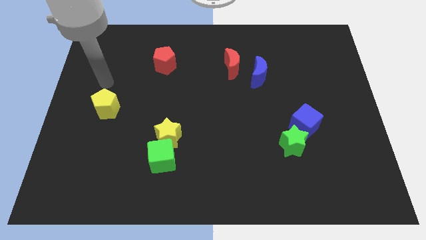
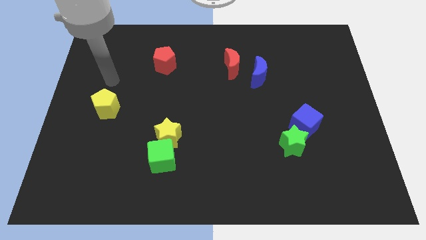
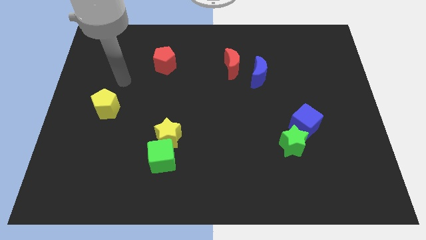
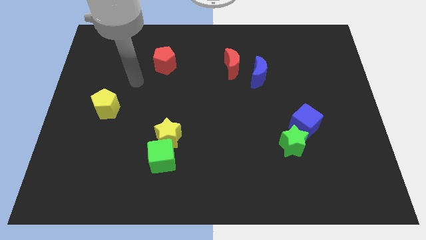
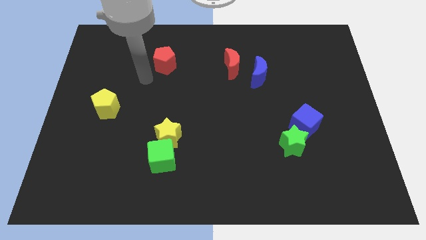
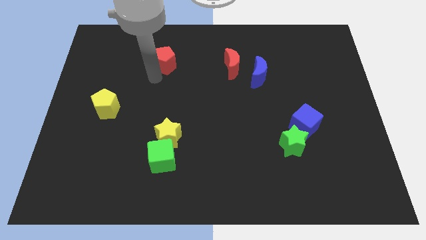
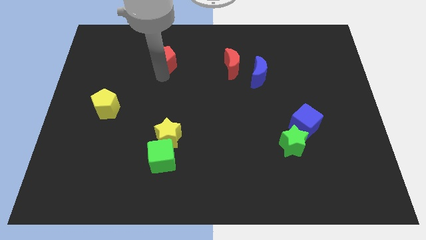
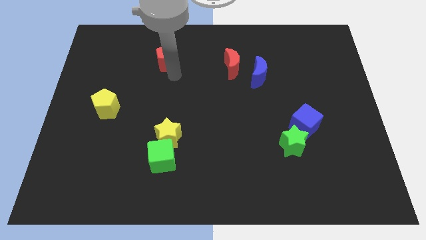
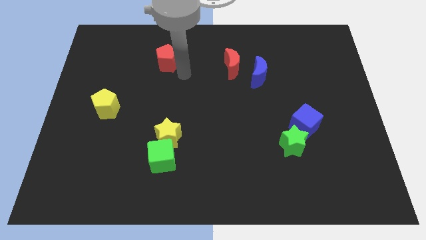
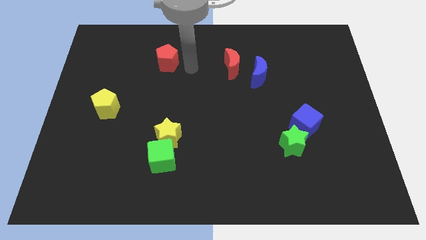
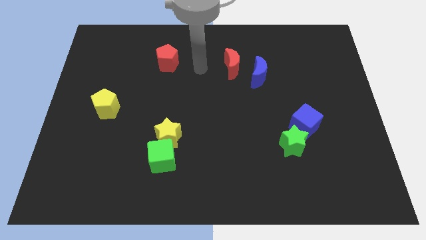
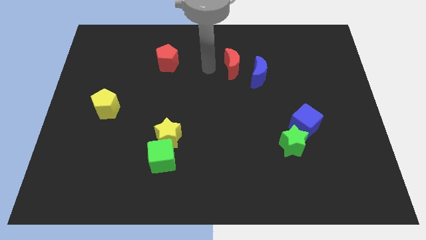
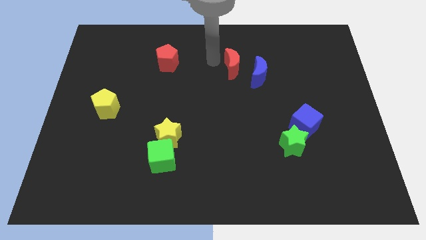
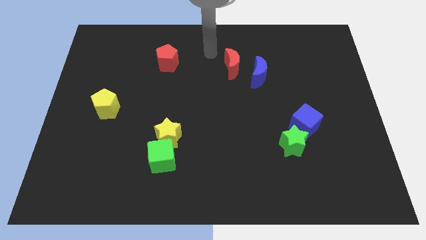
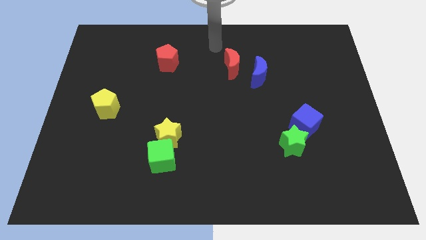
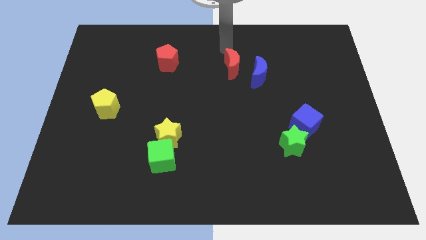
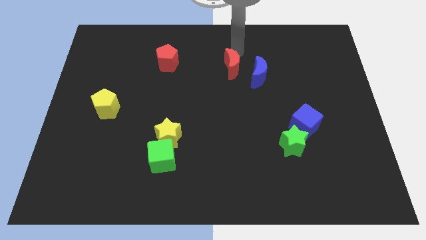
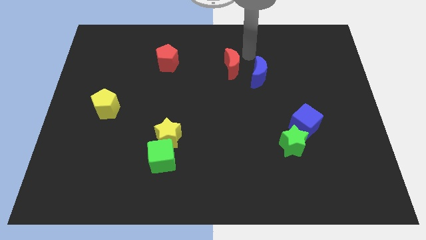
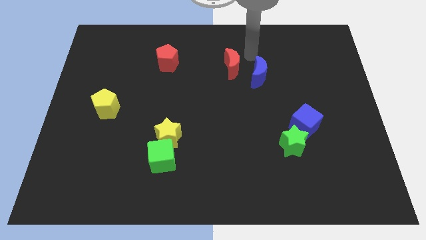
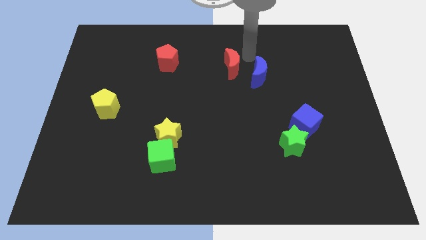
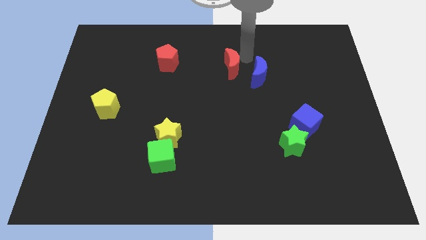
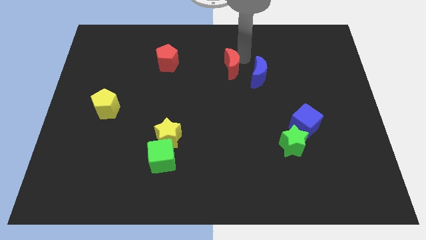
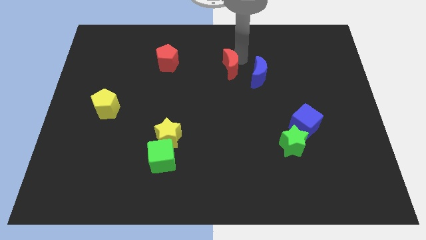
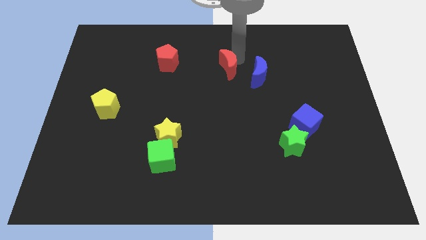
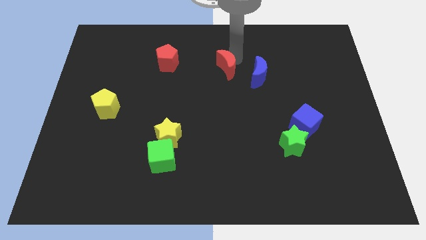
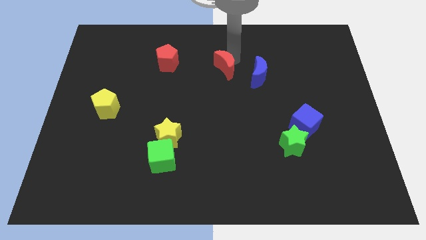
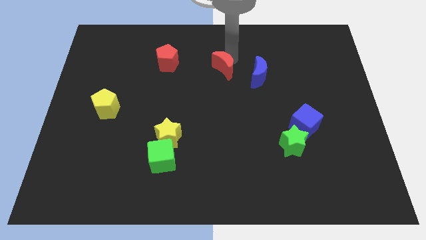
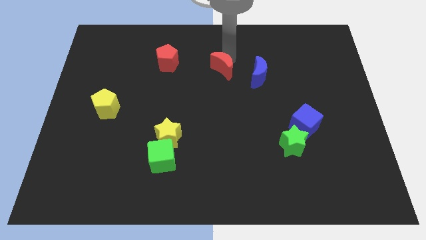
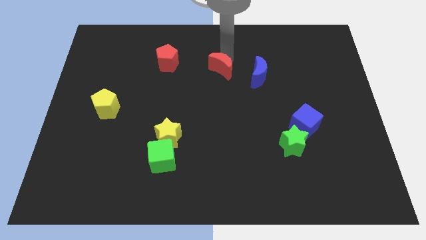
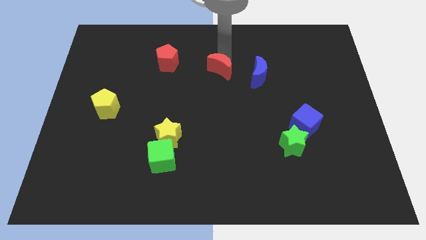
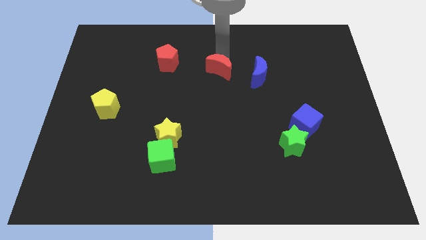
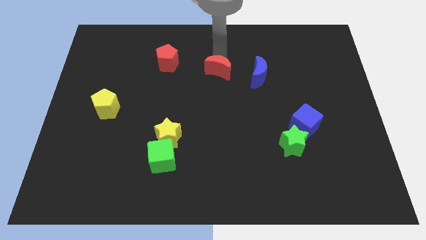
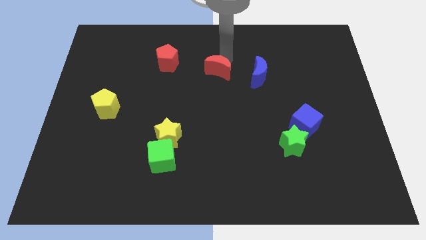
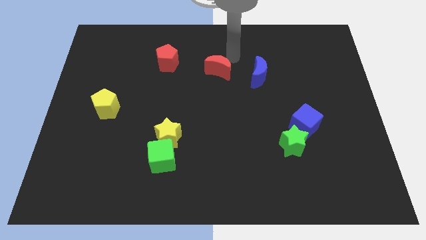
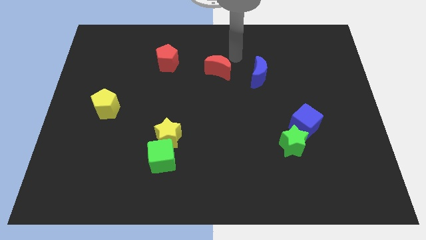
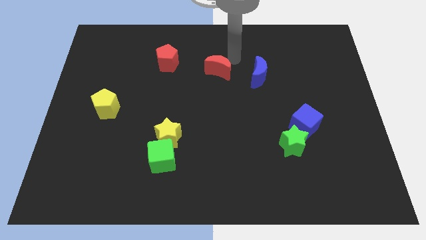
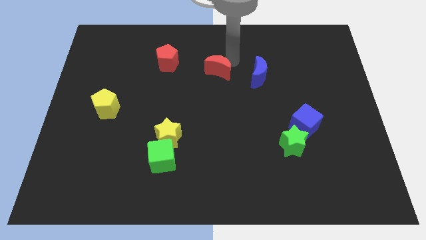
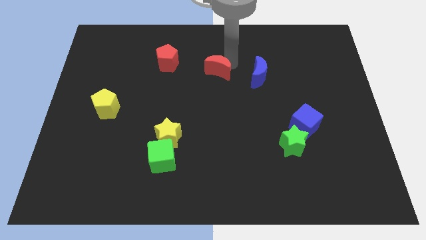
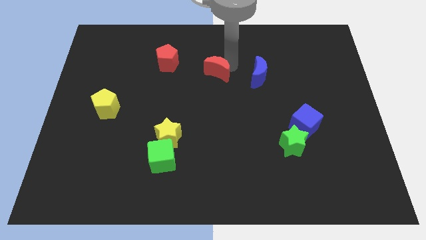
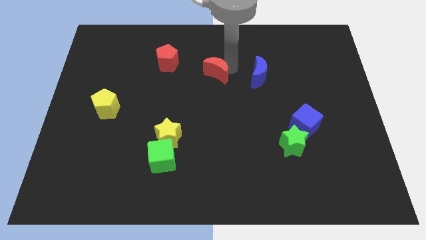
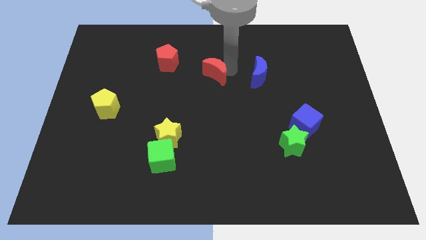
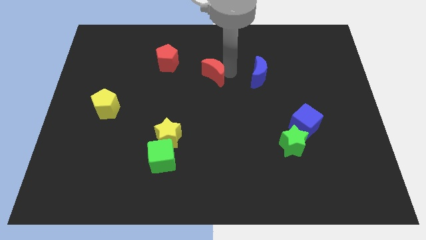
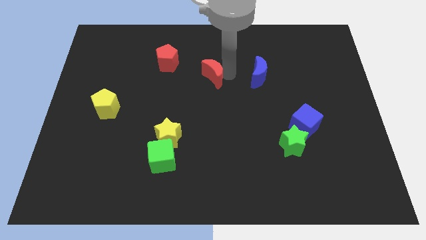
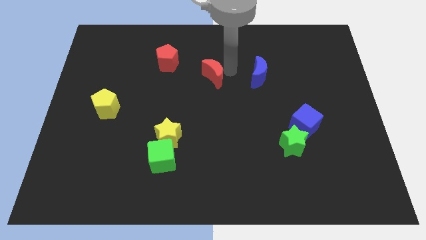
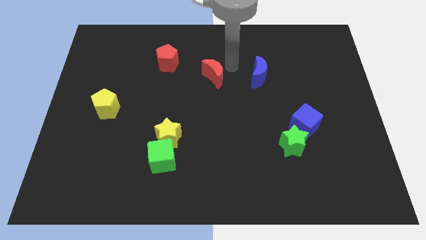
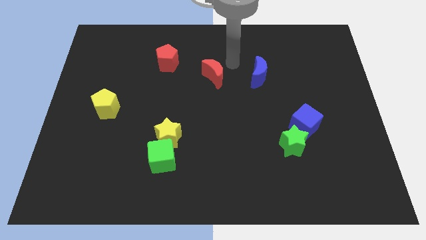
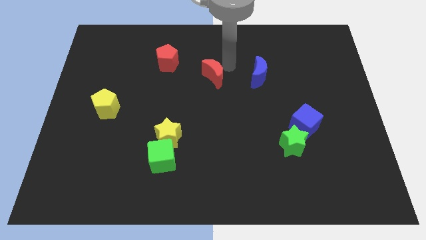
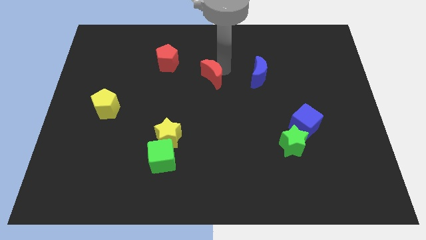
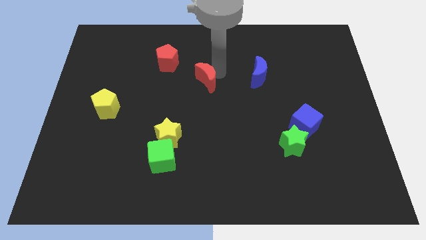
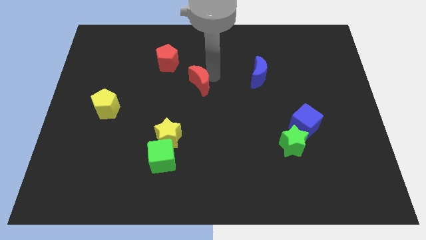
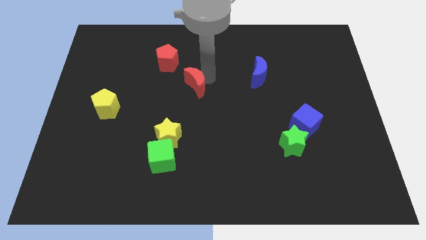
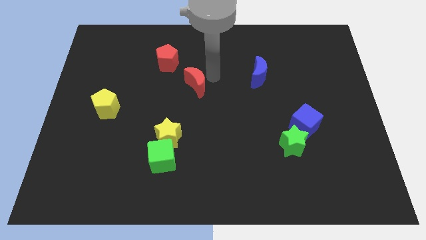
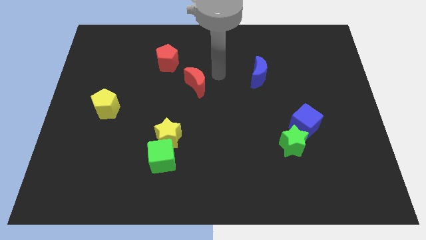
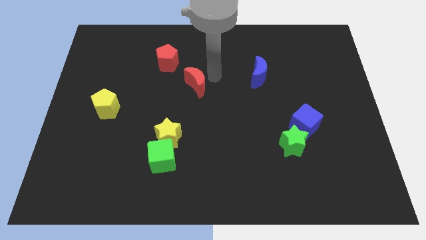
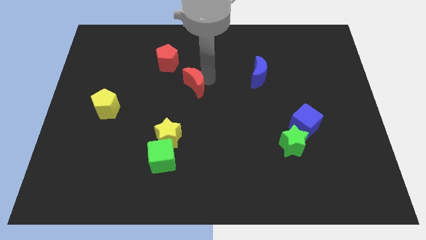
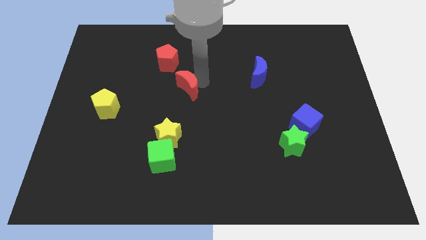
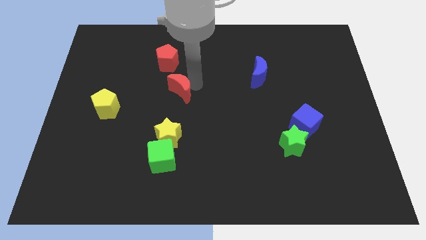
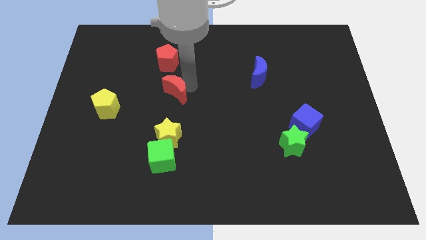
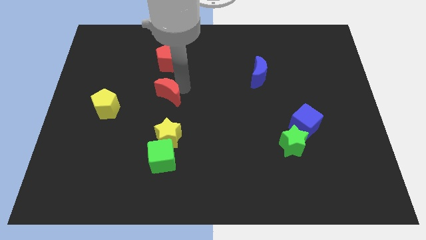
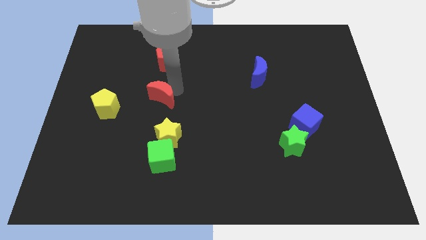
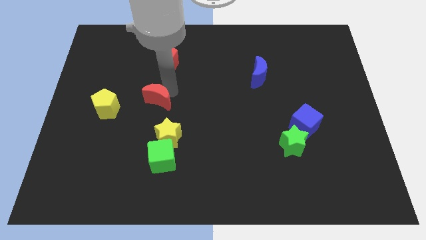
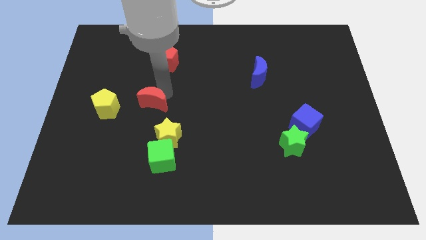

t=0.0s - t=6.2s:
move the red moon downwards and then left

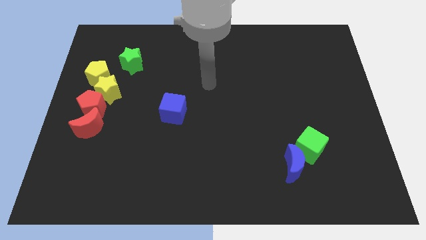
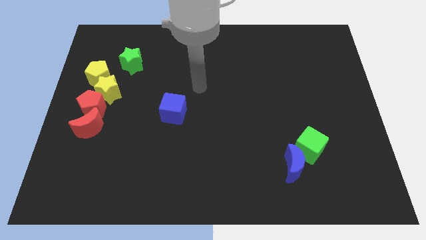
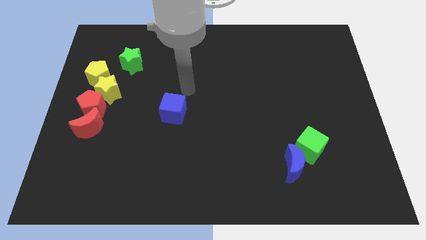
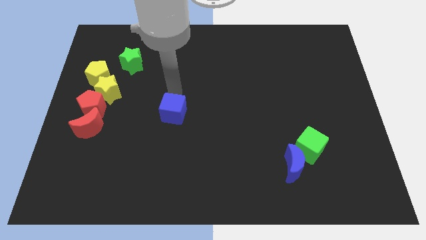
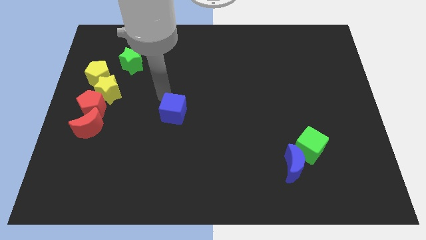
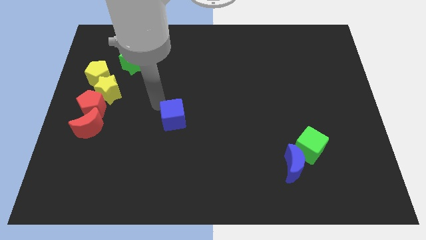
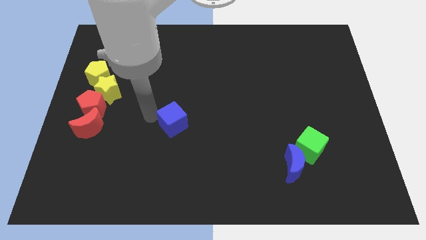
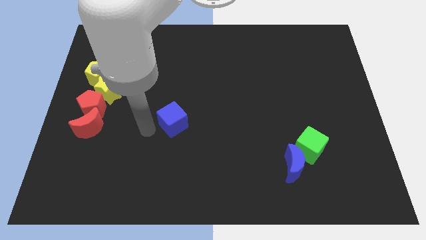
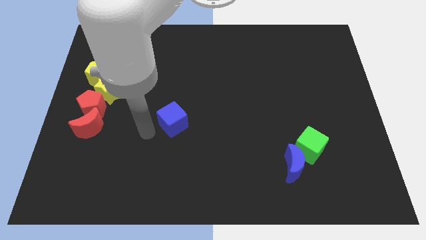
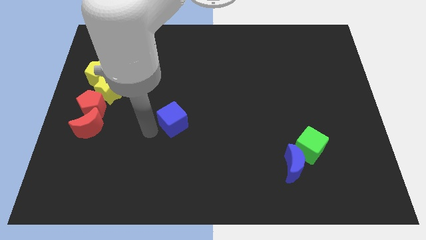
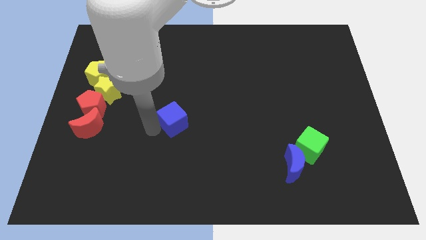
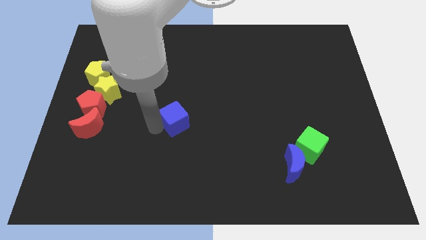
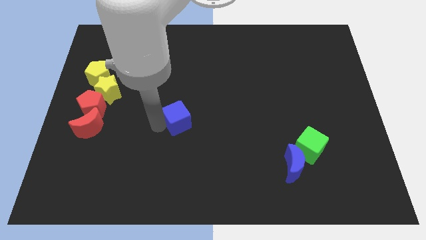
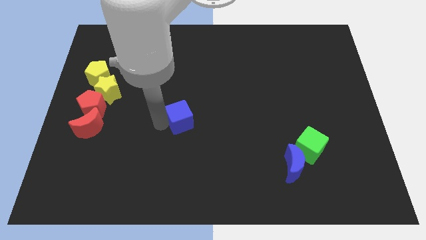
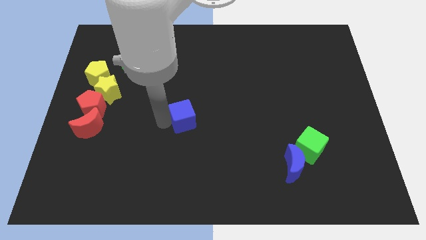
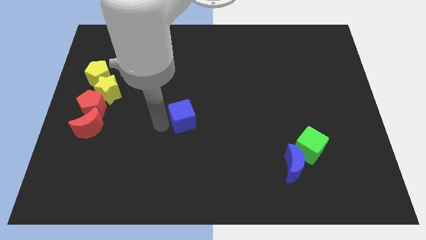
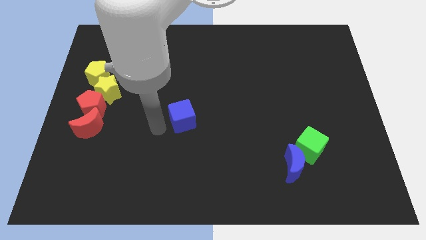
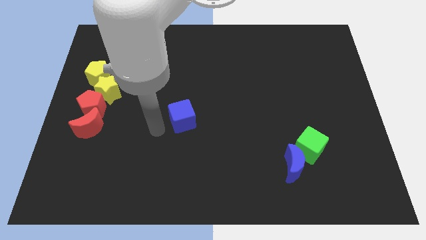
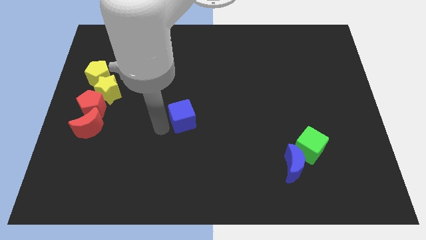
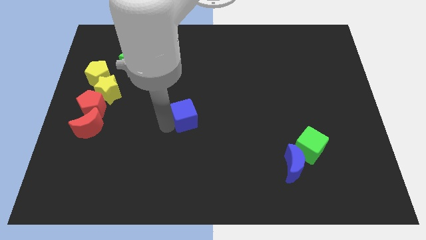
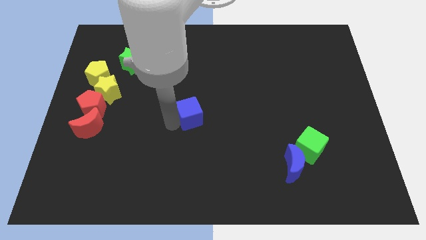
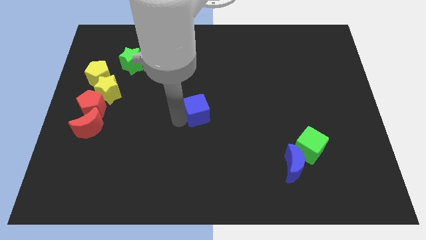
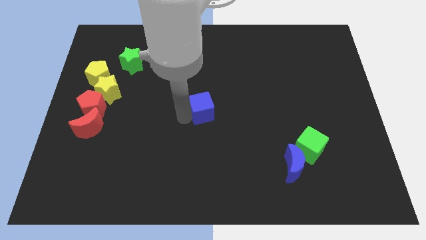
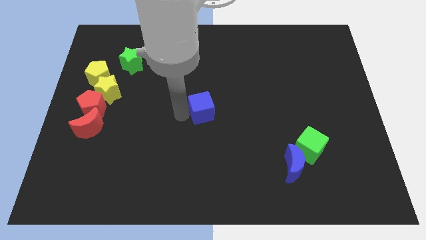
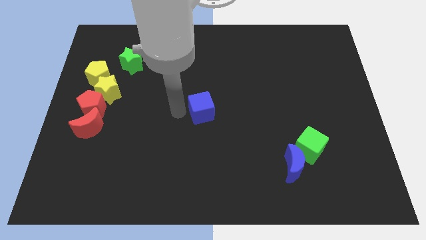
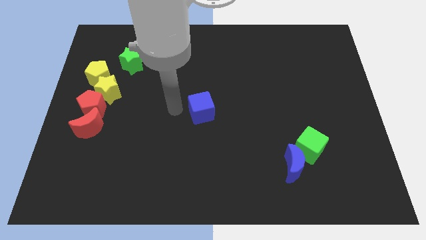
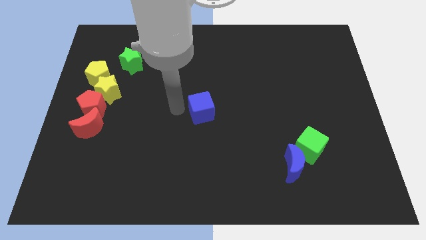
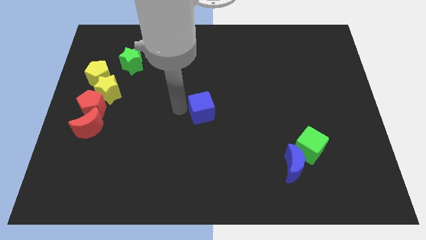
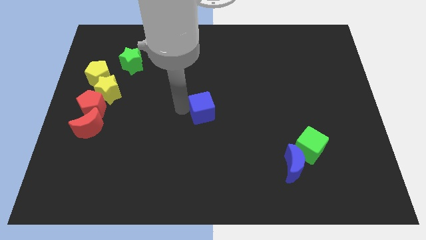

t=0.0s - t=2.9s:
push the blue cube somewhat right
